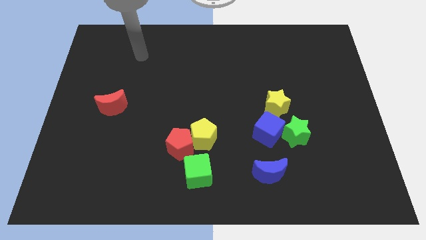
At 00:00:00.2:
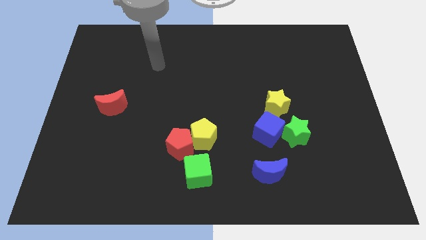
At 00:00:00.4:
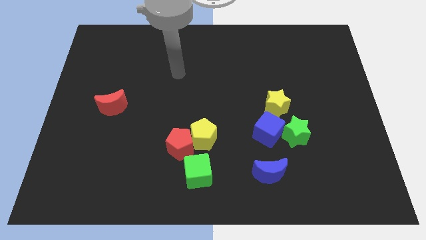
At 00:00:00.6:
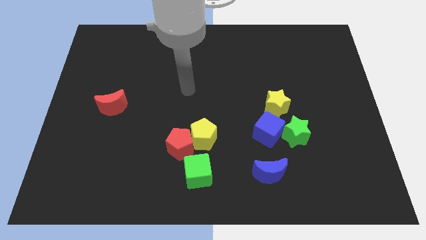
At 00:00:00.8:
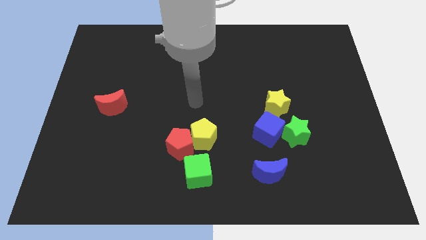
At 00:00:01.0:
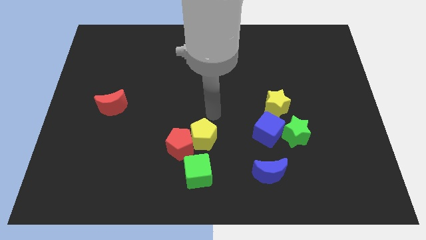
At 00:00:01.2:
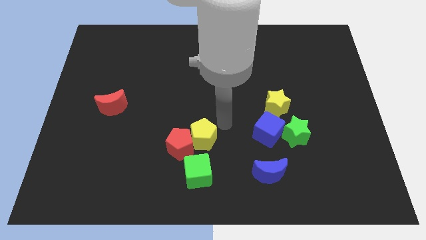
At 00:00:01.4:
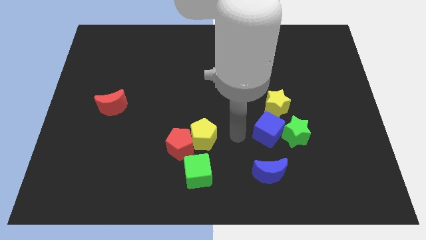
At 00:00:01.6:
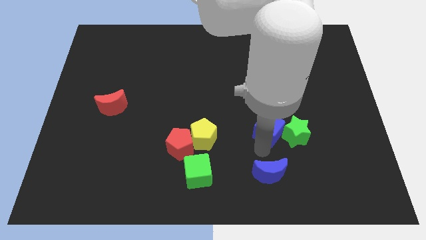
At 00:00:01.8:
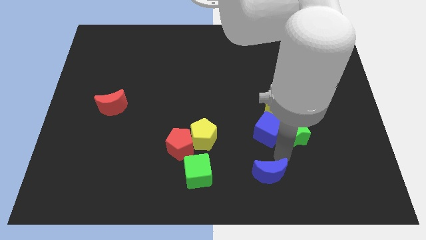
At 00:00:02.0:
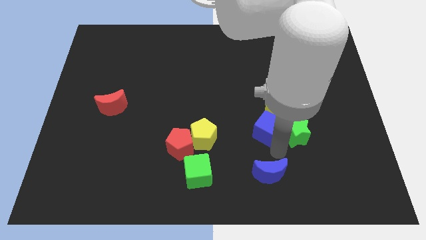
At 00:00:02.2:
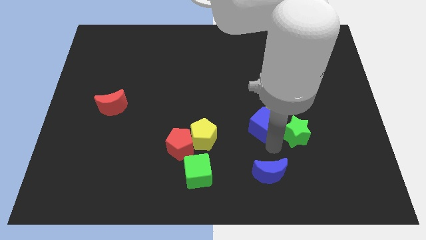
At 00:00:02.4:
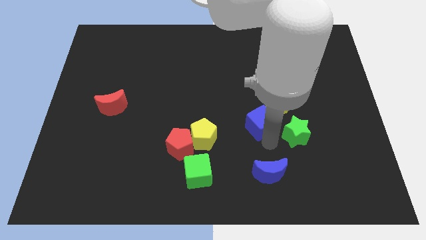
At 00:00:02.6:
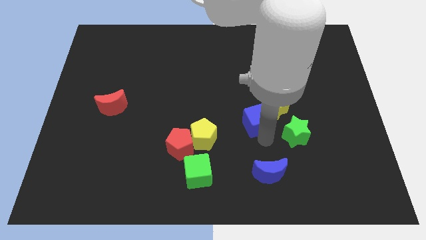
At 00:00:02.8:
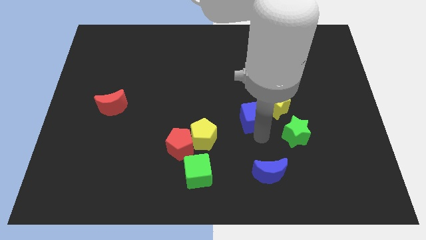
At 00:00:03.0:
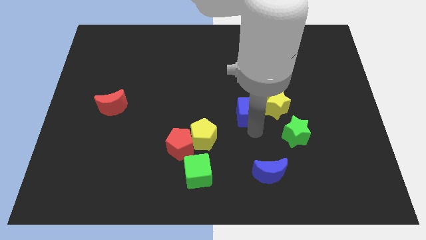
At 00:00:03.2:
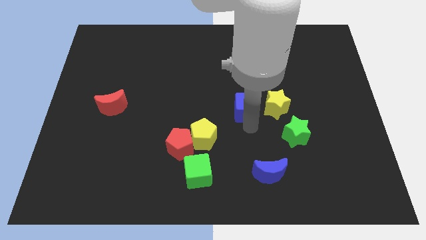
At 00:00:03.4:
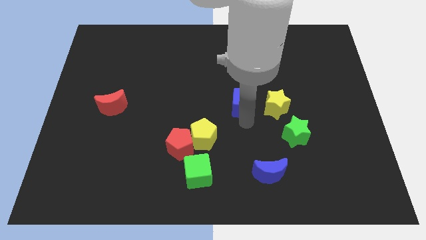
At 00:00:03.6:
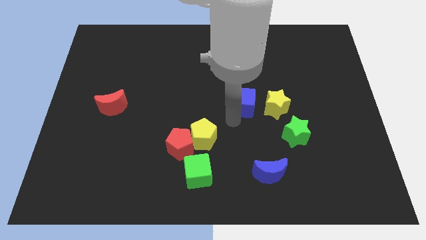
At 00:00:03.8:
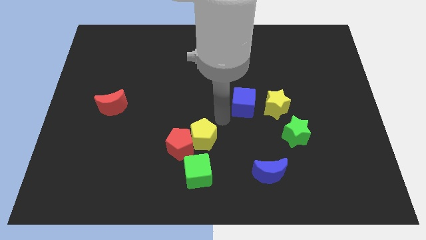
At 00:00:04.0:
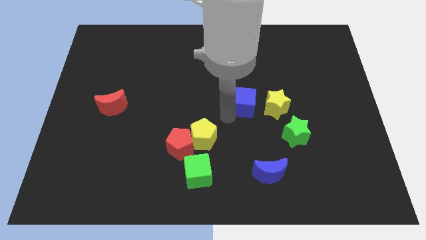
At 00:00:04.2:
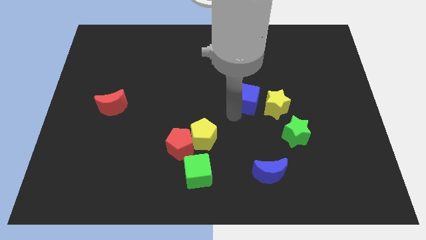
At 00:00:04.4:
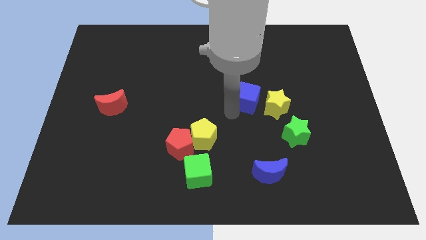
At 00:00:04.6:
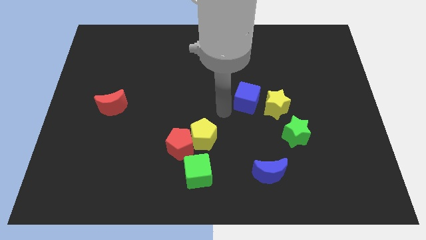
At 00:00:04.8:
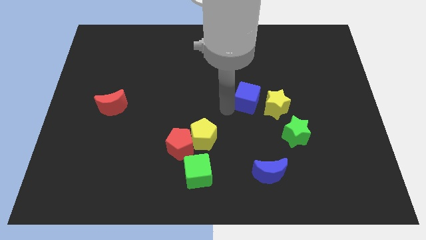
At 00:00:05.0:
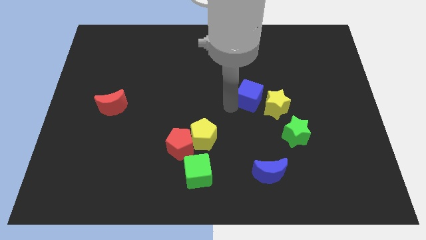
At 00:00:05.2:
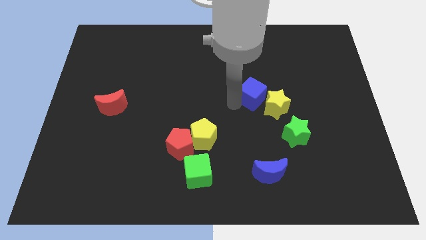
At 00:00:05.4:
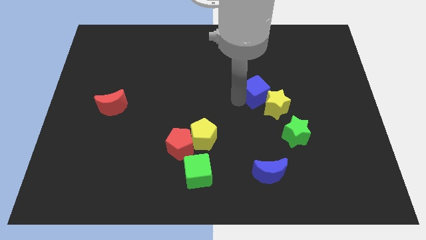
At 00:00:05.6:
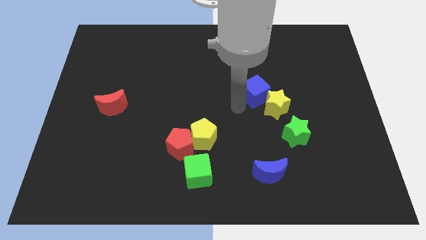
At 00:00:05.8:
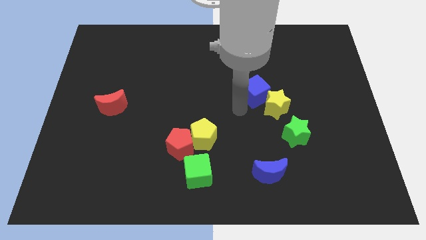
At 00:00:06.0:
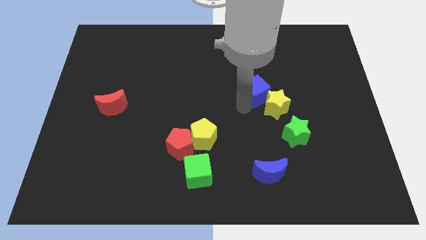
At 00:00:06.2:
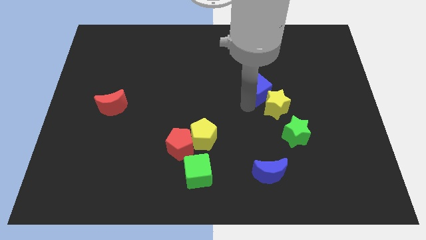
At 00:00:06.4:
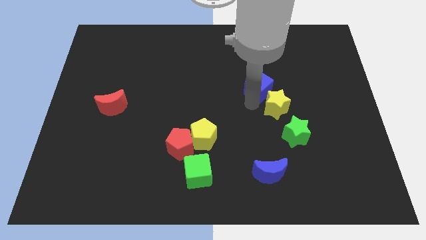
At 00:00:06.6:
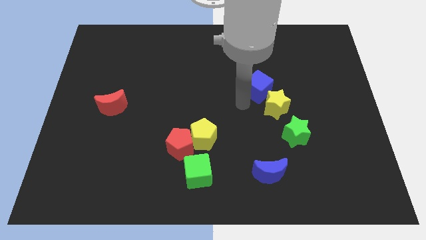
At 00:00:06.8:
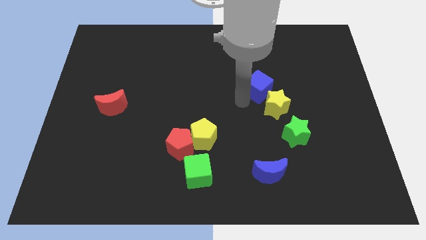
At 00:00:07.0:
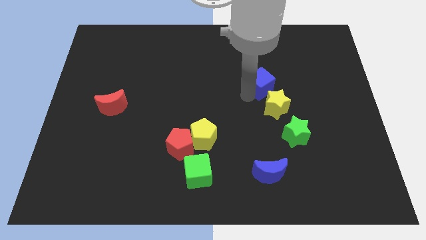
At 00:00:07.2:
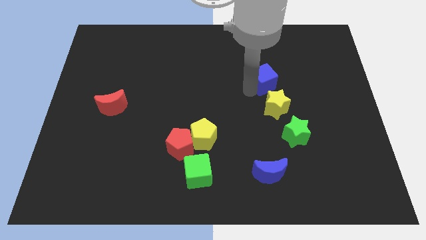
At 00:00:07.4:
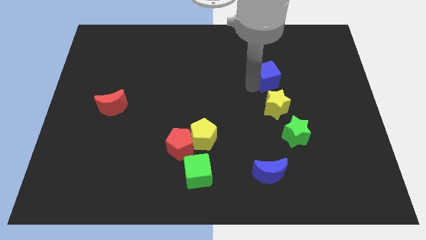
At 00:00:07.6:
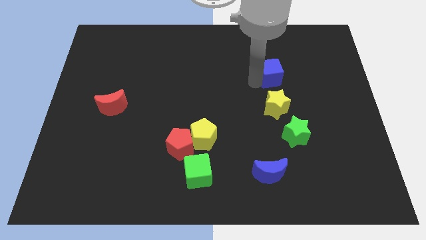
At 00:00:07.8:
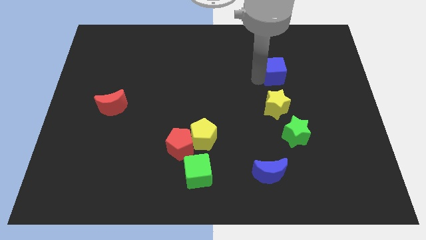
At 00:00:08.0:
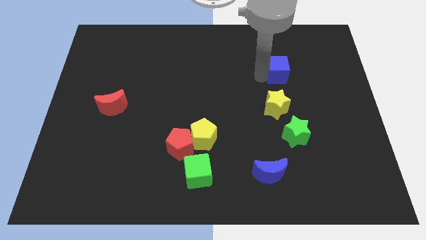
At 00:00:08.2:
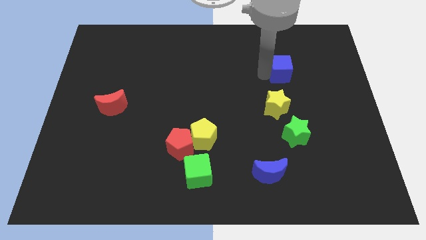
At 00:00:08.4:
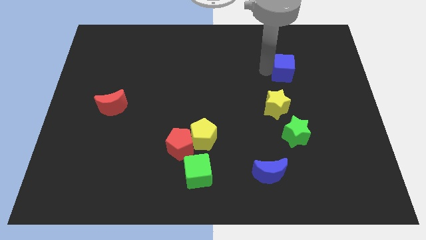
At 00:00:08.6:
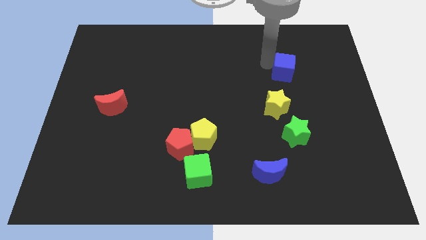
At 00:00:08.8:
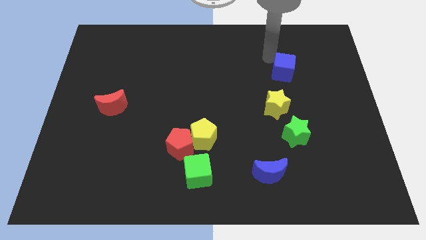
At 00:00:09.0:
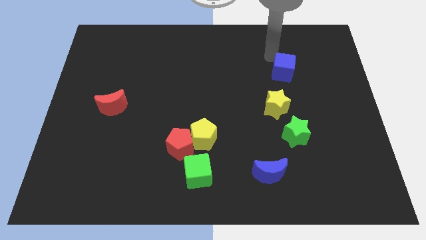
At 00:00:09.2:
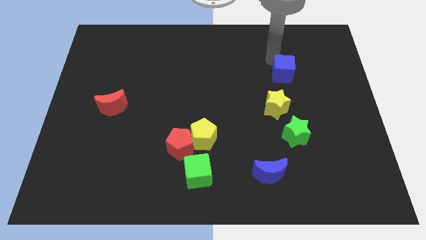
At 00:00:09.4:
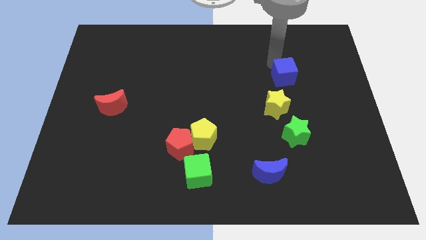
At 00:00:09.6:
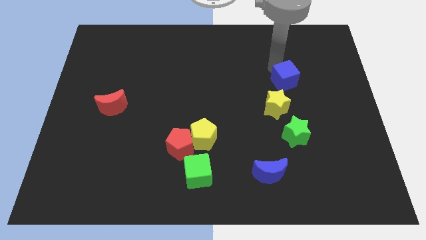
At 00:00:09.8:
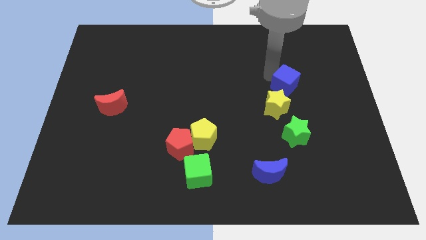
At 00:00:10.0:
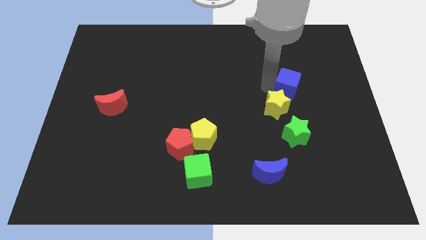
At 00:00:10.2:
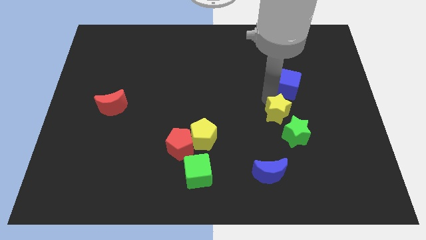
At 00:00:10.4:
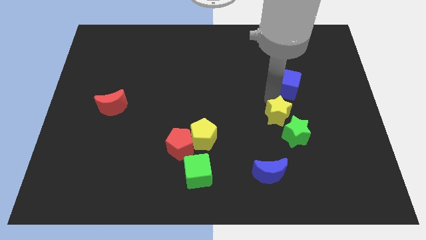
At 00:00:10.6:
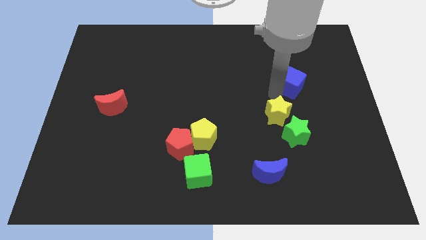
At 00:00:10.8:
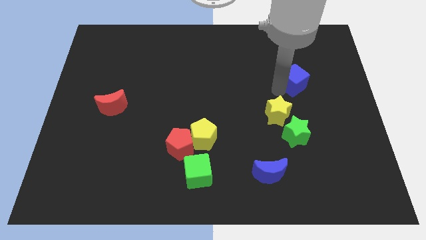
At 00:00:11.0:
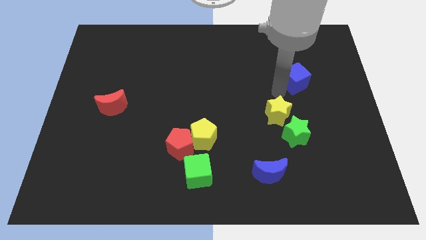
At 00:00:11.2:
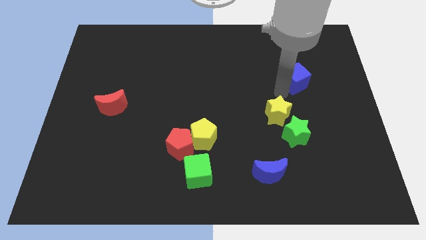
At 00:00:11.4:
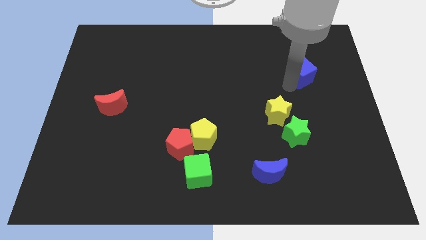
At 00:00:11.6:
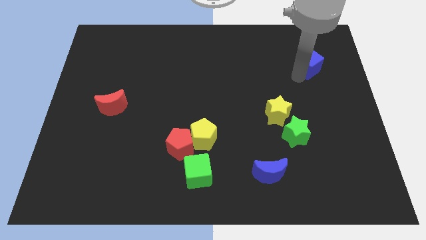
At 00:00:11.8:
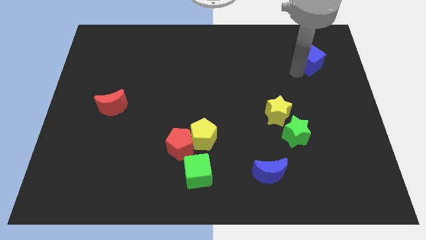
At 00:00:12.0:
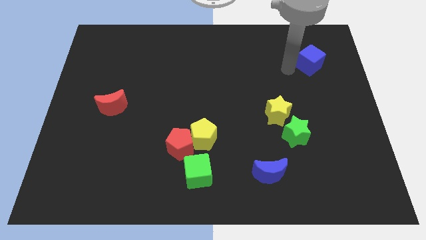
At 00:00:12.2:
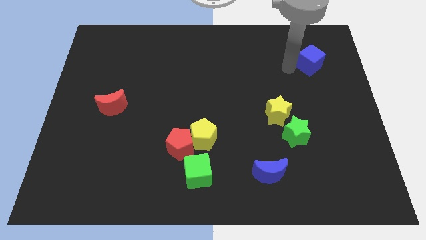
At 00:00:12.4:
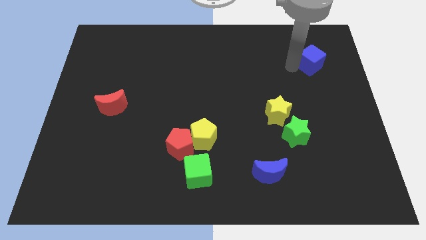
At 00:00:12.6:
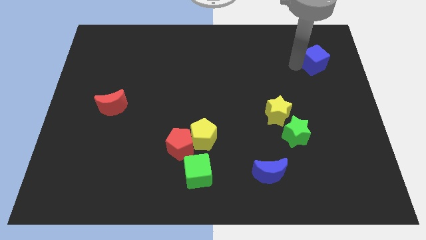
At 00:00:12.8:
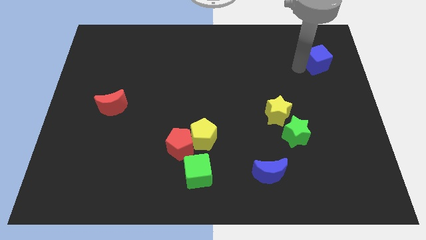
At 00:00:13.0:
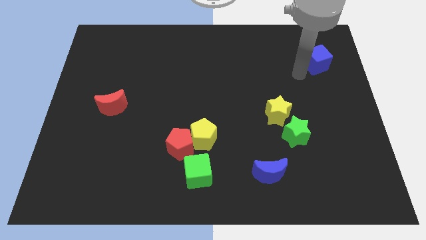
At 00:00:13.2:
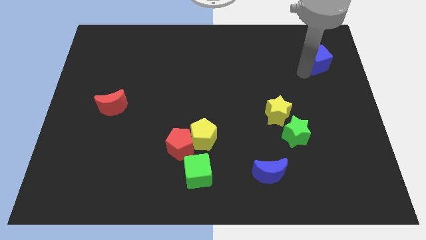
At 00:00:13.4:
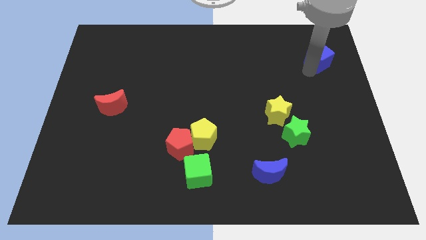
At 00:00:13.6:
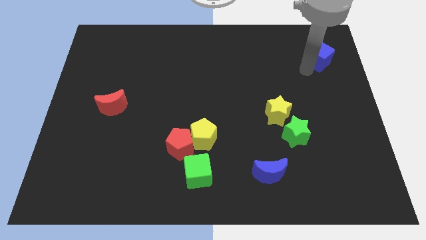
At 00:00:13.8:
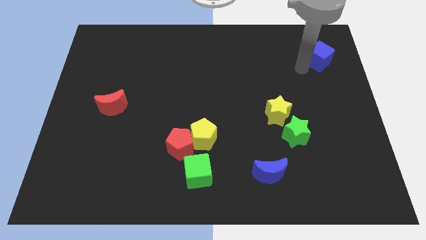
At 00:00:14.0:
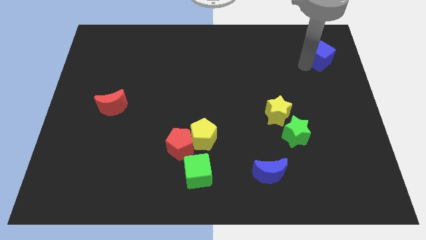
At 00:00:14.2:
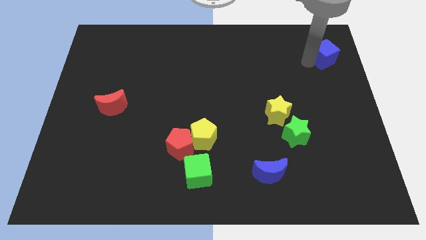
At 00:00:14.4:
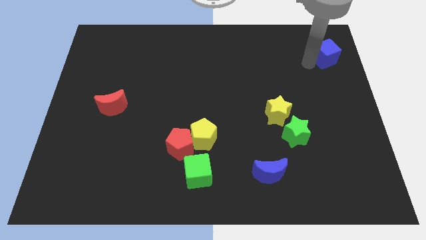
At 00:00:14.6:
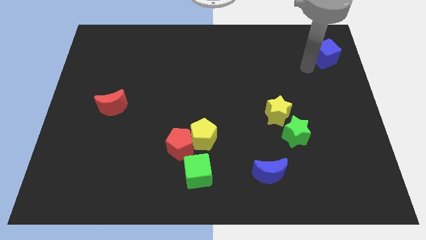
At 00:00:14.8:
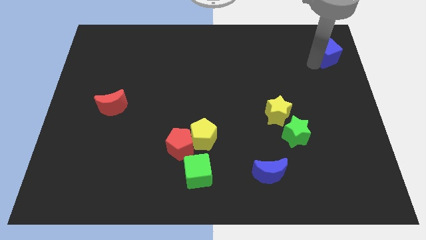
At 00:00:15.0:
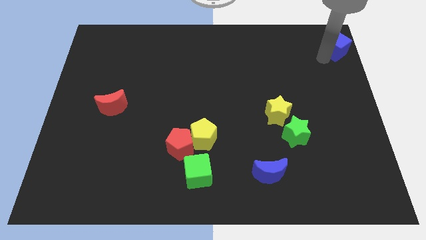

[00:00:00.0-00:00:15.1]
push the blue cube to the top right

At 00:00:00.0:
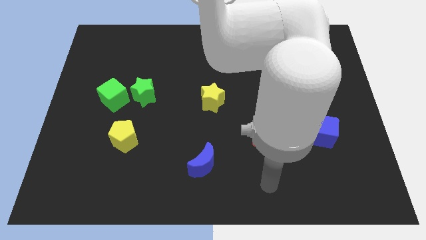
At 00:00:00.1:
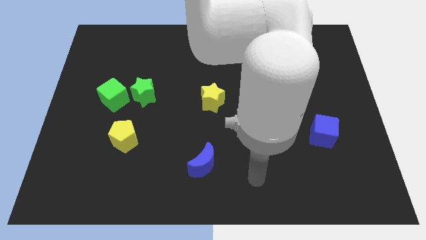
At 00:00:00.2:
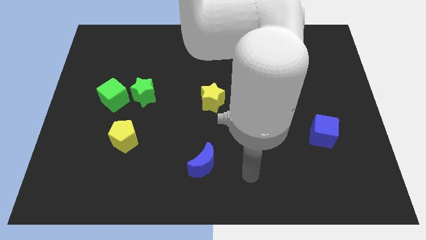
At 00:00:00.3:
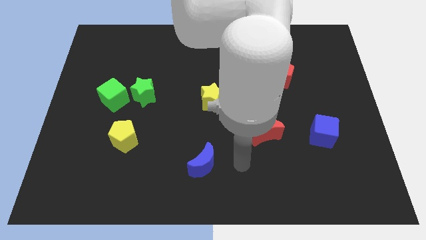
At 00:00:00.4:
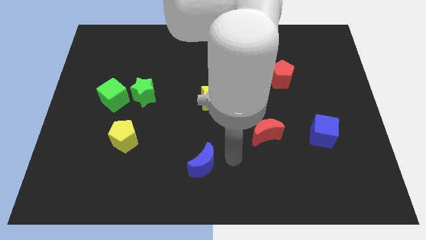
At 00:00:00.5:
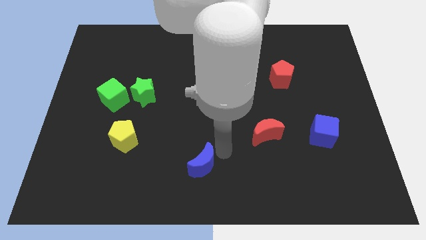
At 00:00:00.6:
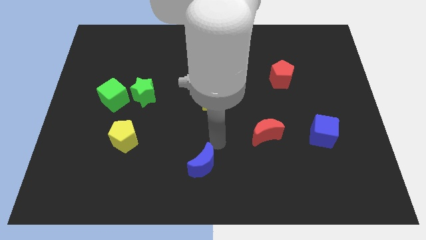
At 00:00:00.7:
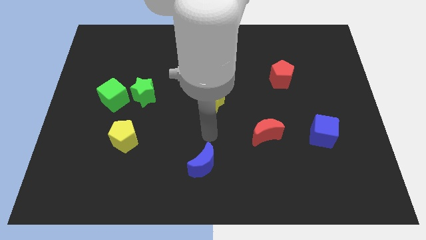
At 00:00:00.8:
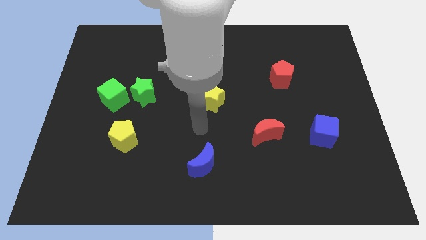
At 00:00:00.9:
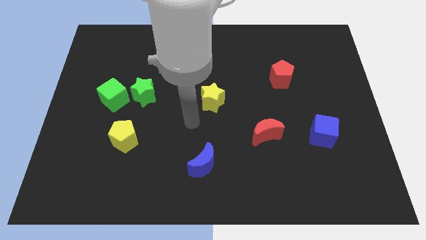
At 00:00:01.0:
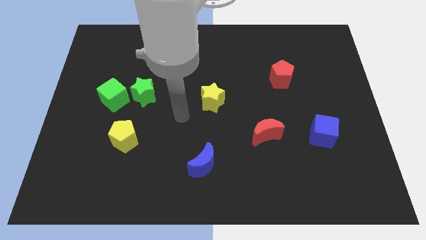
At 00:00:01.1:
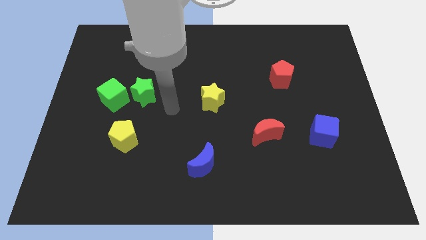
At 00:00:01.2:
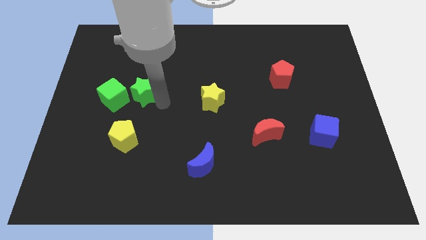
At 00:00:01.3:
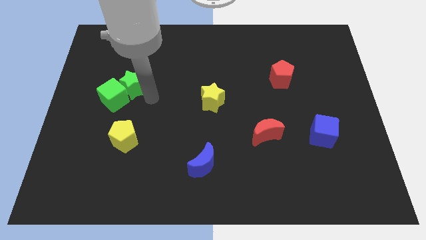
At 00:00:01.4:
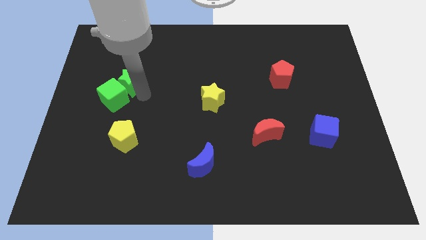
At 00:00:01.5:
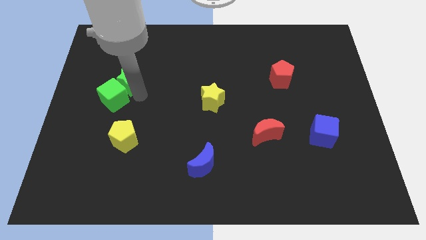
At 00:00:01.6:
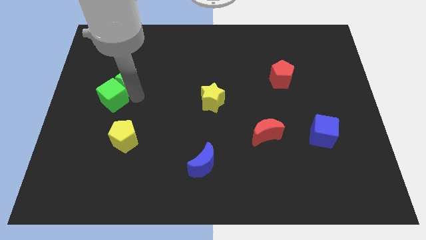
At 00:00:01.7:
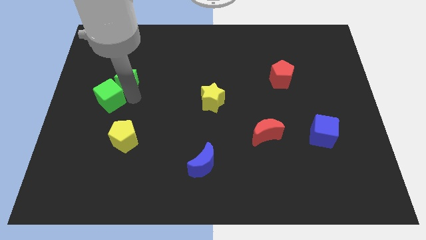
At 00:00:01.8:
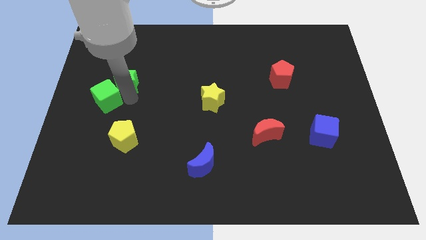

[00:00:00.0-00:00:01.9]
slide the green cube to the left side
